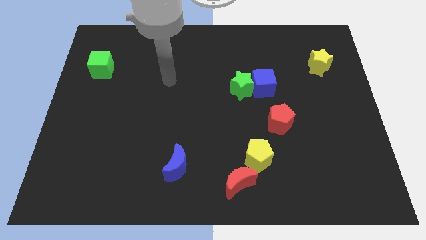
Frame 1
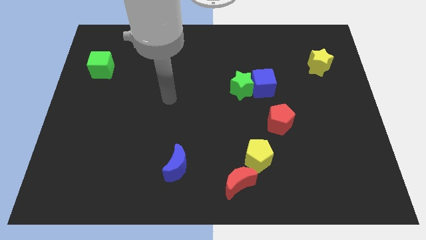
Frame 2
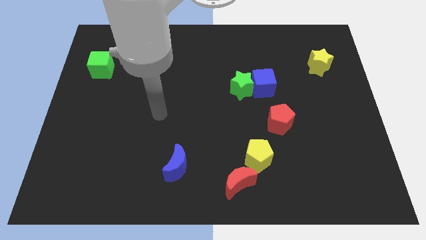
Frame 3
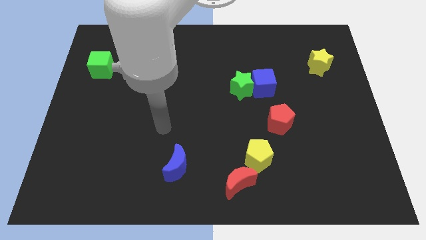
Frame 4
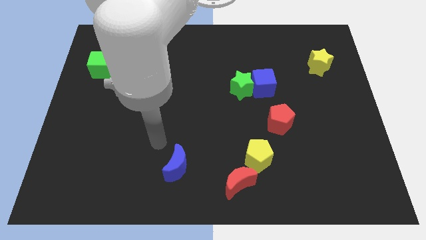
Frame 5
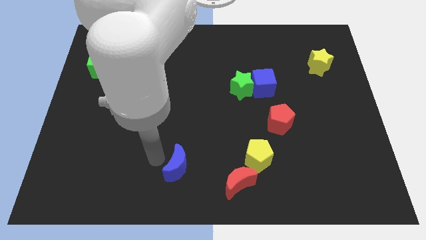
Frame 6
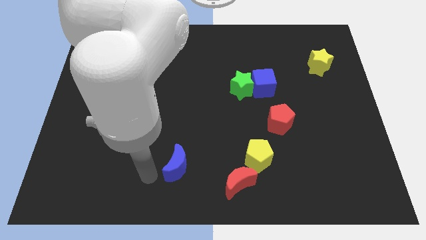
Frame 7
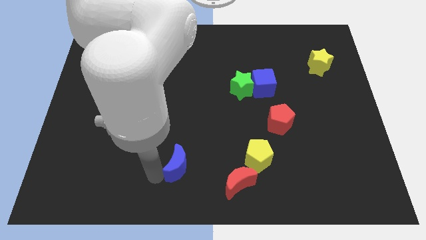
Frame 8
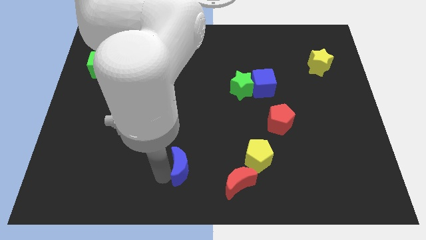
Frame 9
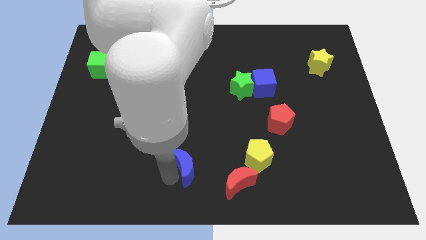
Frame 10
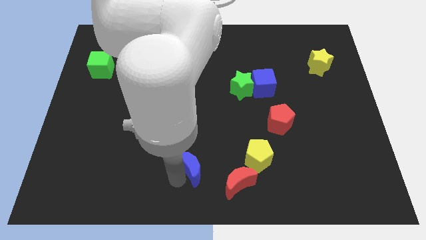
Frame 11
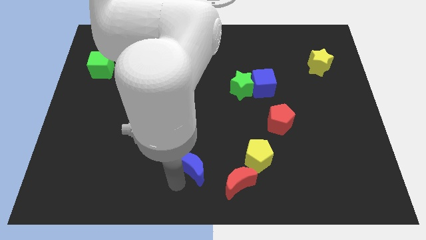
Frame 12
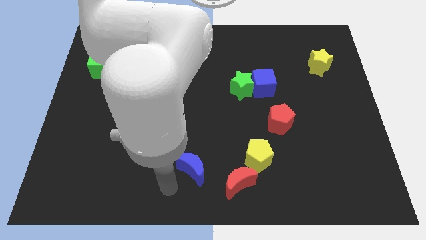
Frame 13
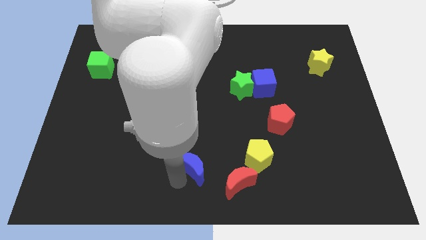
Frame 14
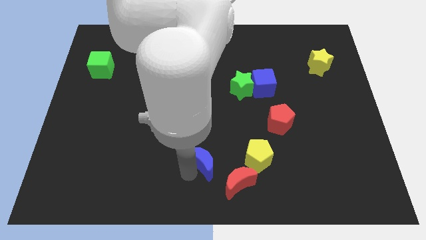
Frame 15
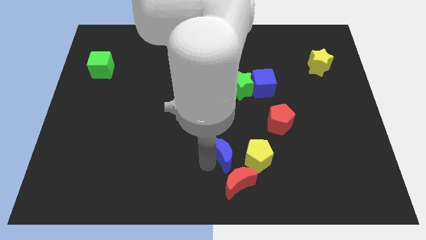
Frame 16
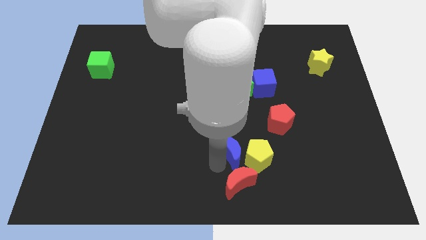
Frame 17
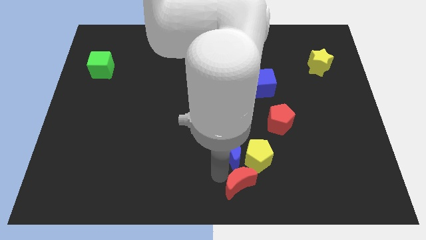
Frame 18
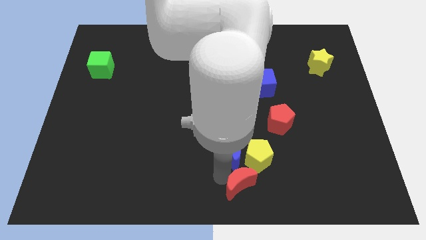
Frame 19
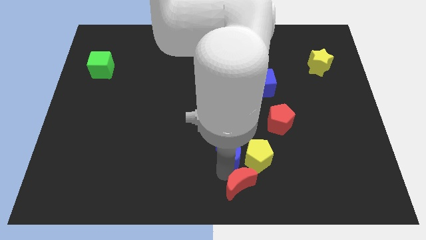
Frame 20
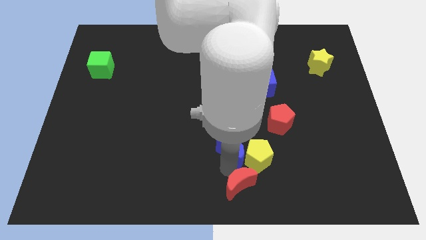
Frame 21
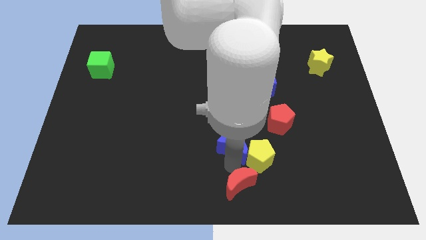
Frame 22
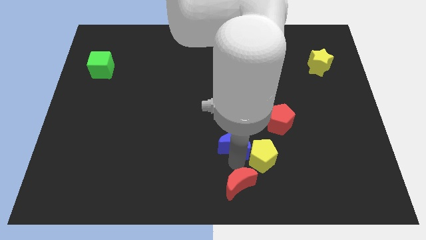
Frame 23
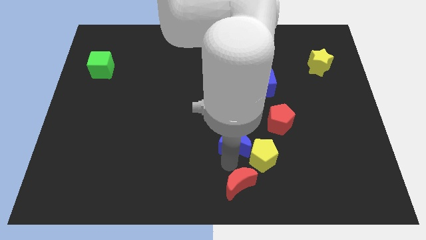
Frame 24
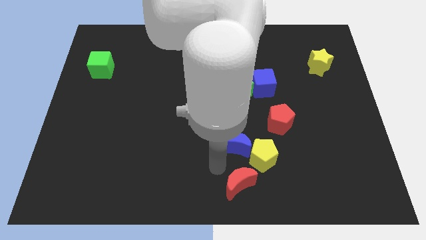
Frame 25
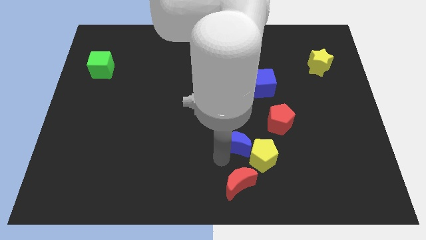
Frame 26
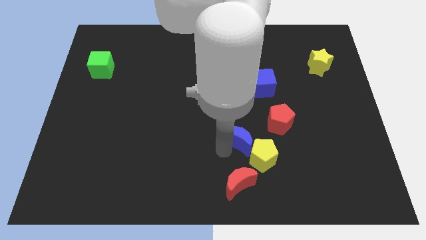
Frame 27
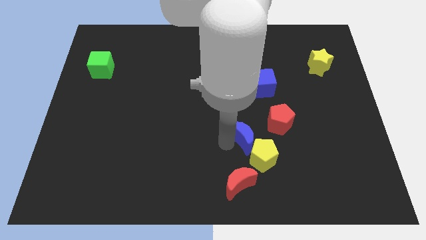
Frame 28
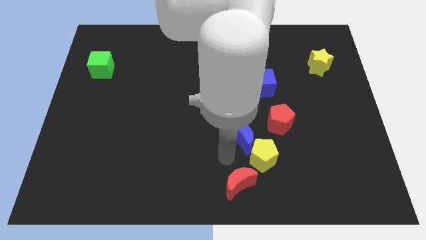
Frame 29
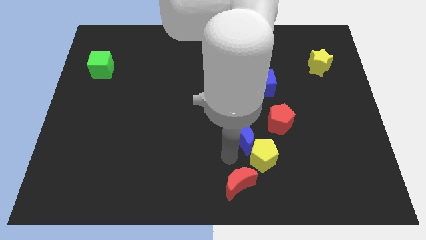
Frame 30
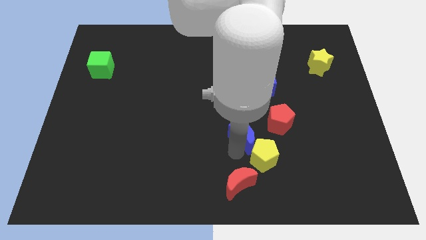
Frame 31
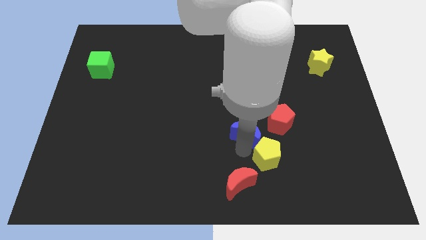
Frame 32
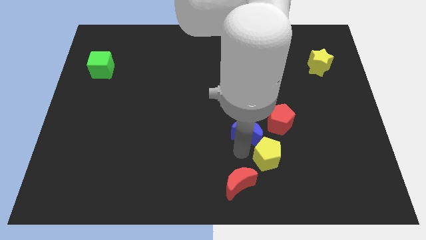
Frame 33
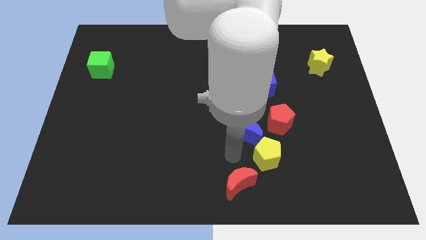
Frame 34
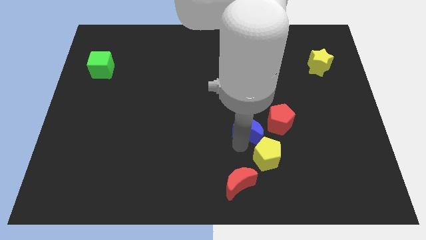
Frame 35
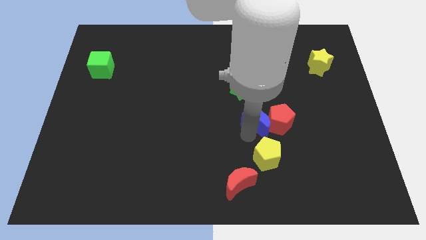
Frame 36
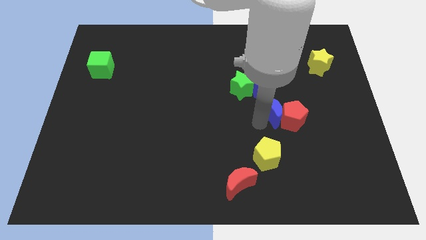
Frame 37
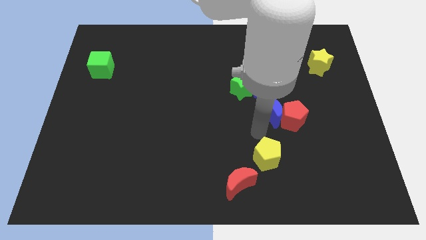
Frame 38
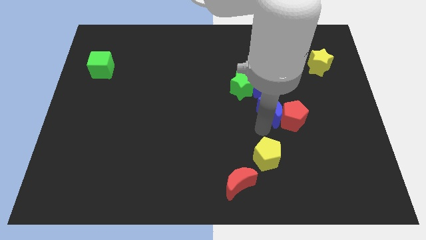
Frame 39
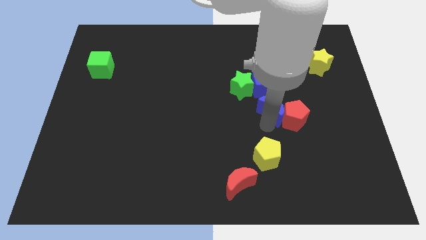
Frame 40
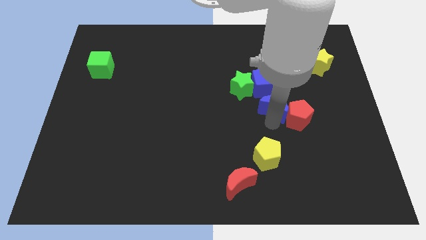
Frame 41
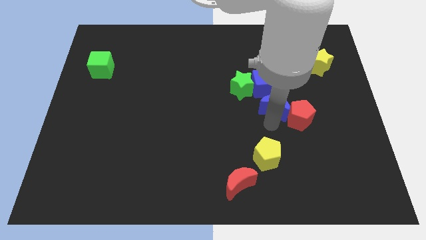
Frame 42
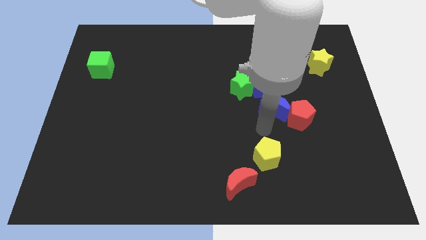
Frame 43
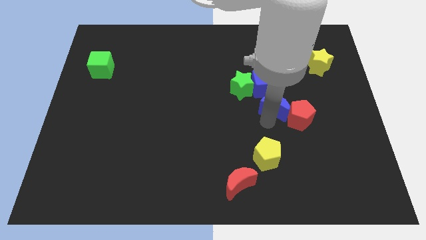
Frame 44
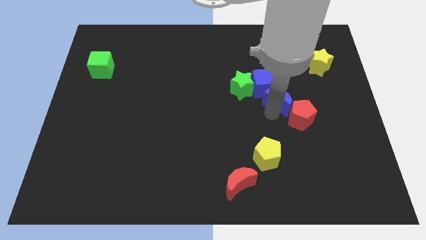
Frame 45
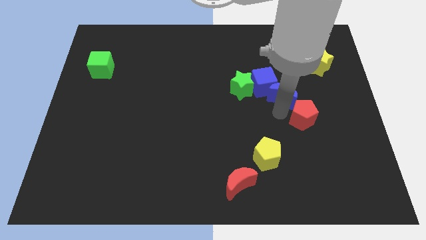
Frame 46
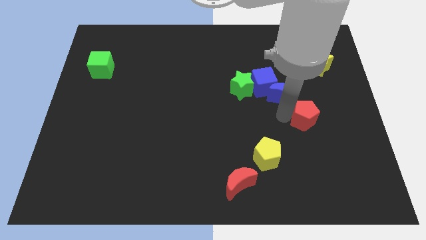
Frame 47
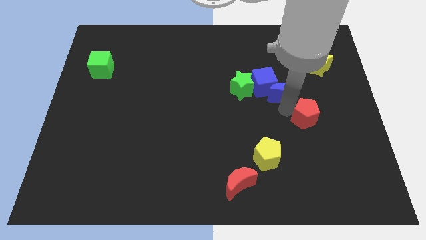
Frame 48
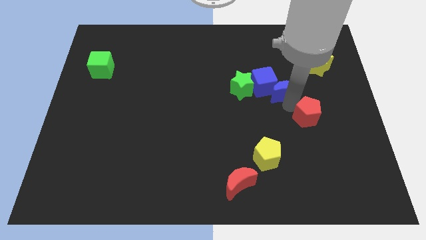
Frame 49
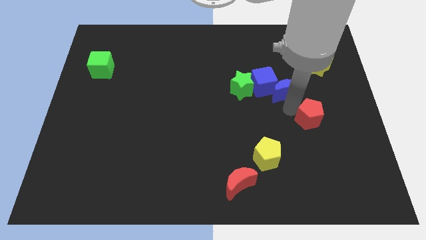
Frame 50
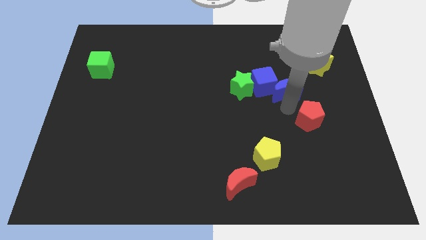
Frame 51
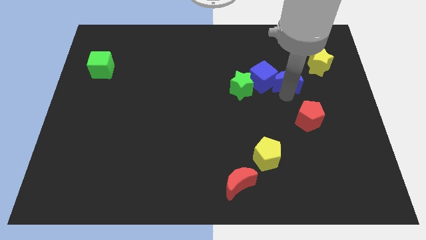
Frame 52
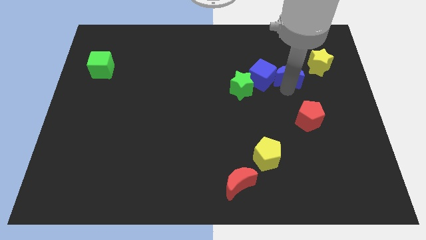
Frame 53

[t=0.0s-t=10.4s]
push the blue moon diagonally up and to the right of the blue cube

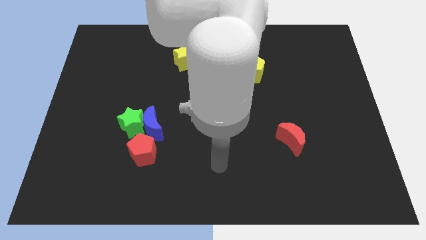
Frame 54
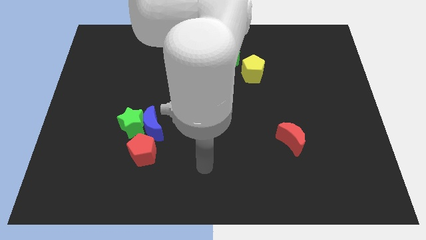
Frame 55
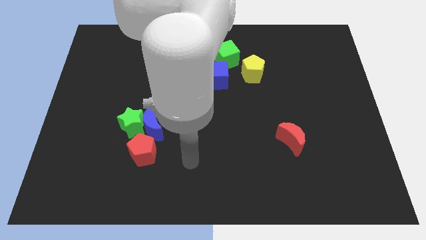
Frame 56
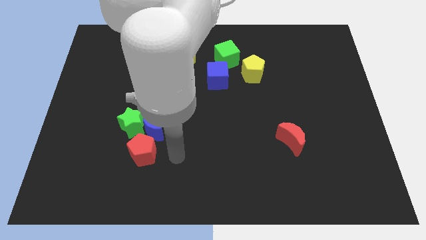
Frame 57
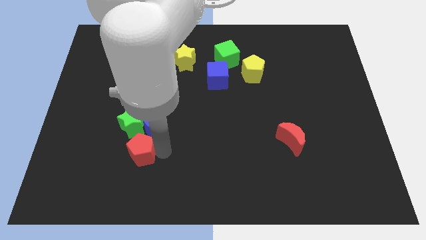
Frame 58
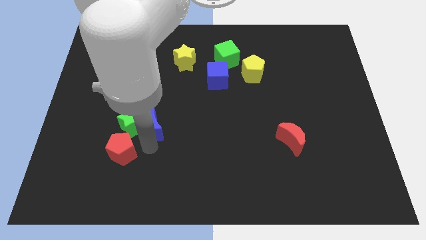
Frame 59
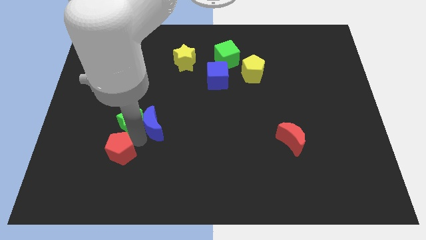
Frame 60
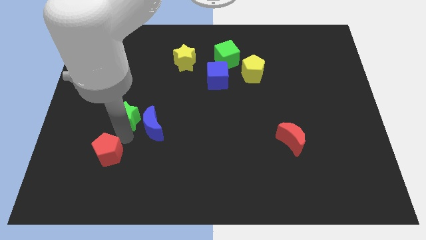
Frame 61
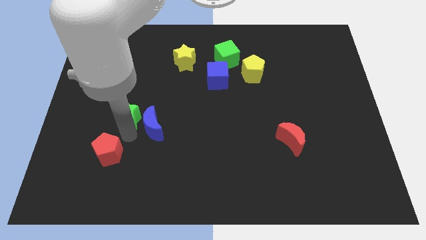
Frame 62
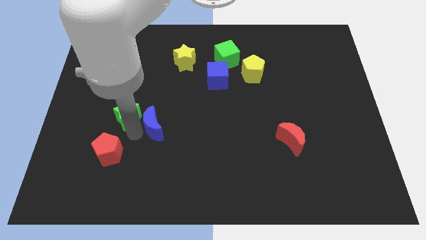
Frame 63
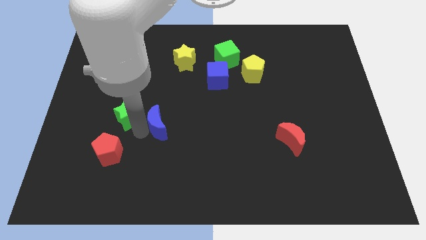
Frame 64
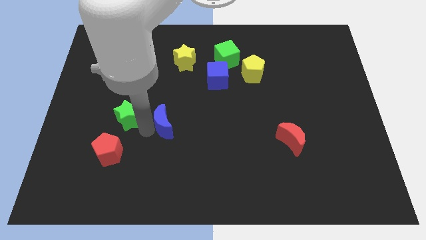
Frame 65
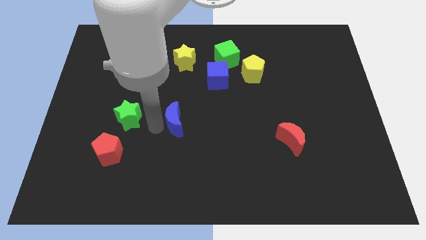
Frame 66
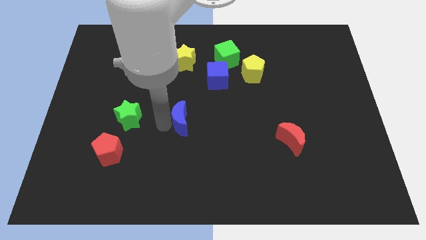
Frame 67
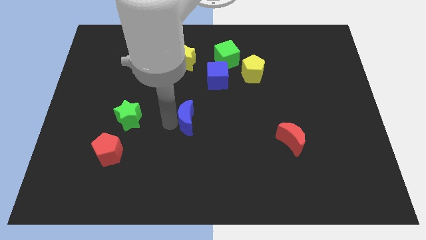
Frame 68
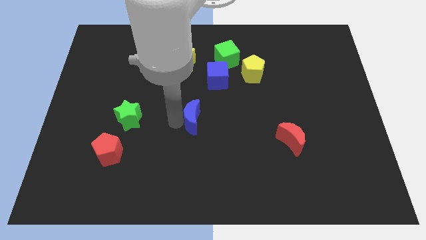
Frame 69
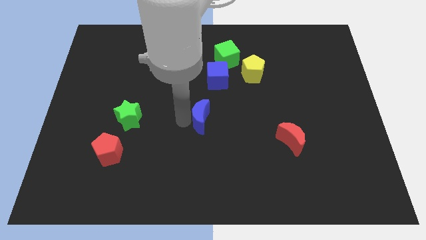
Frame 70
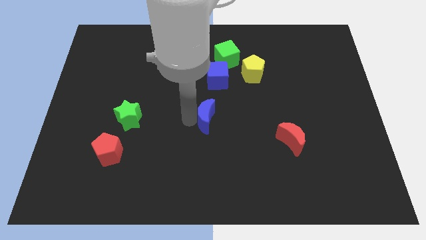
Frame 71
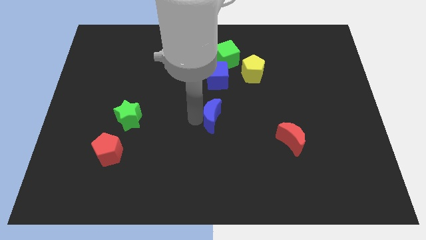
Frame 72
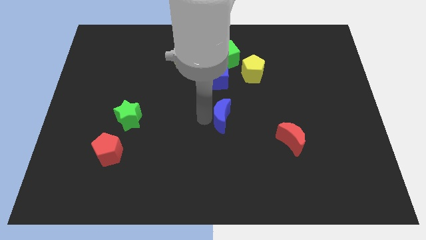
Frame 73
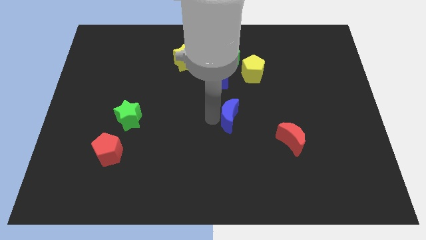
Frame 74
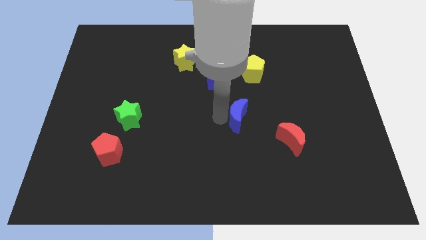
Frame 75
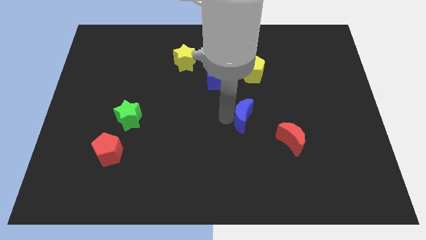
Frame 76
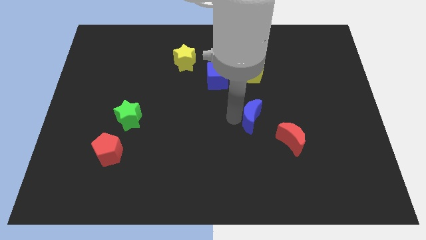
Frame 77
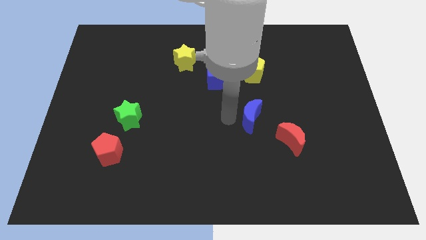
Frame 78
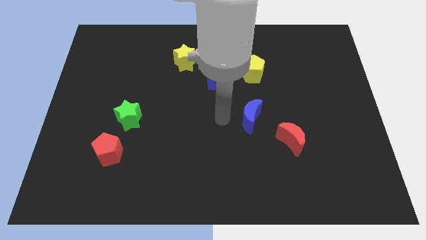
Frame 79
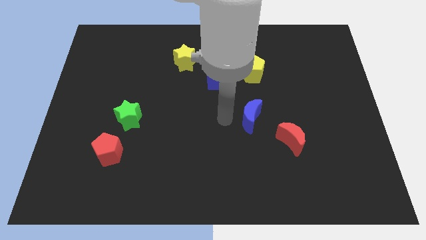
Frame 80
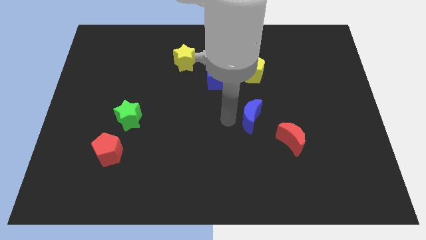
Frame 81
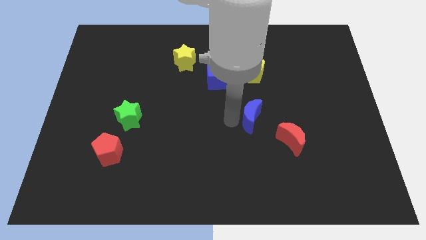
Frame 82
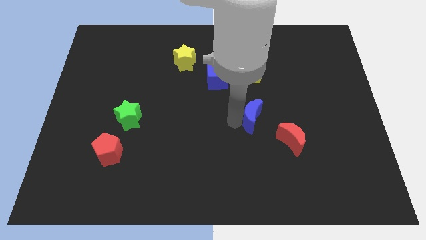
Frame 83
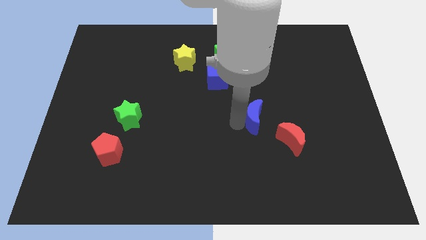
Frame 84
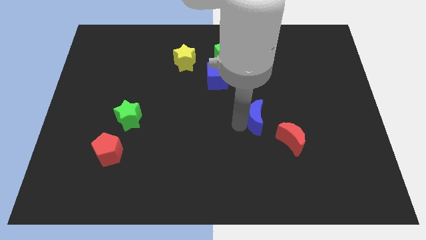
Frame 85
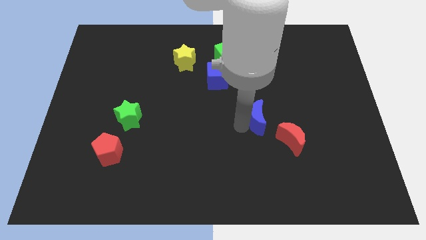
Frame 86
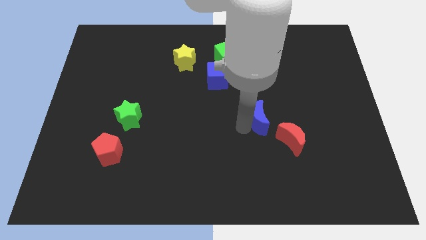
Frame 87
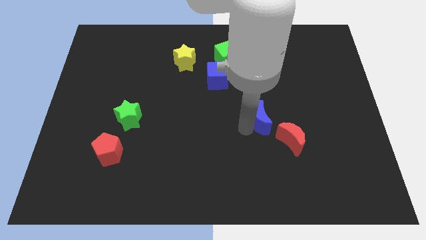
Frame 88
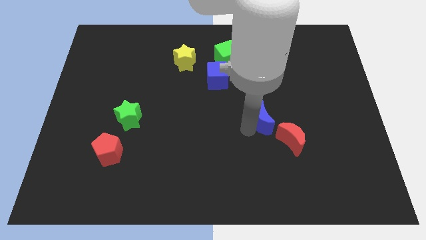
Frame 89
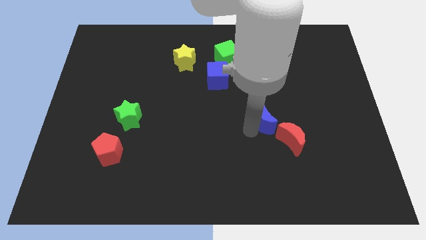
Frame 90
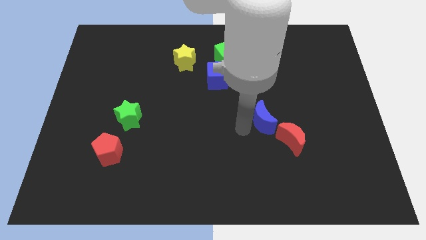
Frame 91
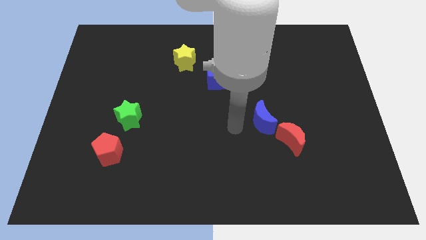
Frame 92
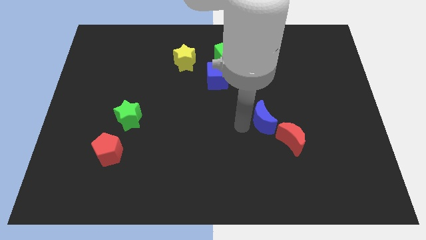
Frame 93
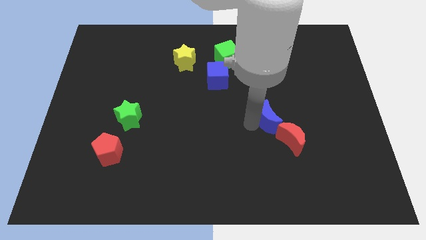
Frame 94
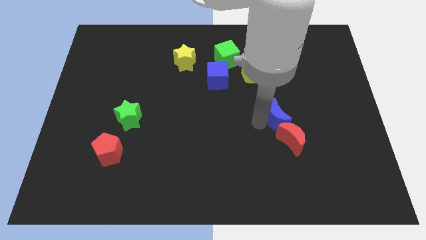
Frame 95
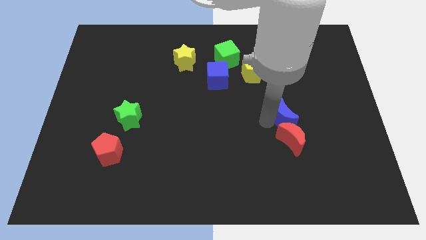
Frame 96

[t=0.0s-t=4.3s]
put the blue moon to the top right side of the red moon
